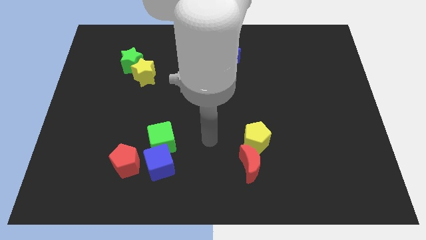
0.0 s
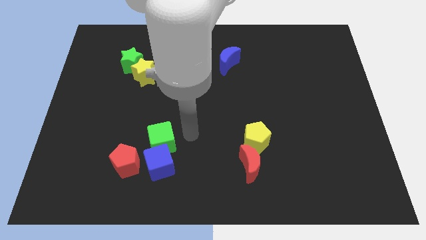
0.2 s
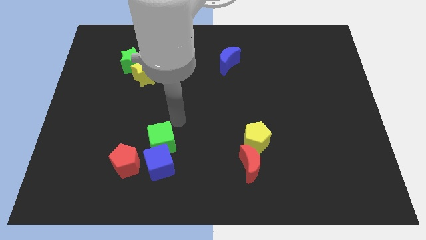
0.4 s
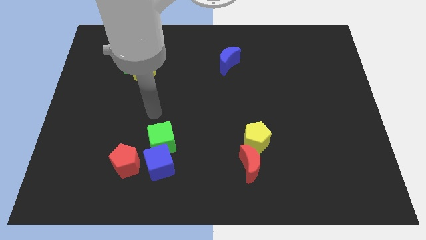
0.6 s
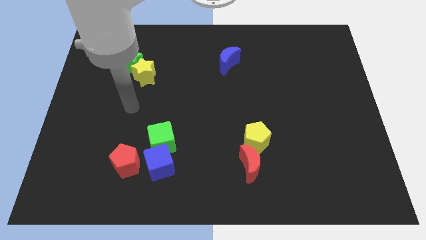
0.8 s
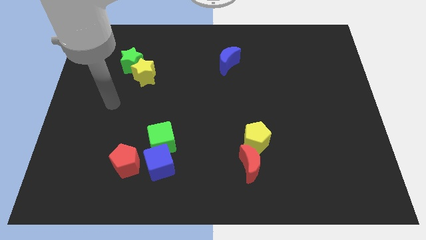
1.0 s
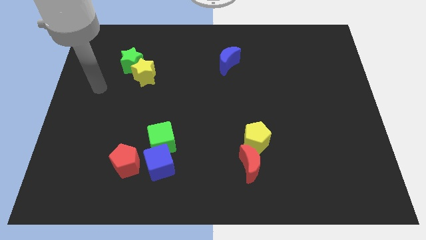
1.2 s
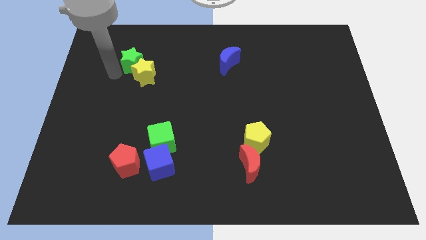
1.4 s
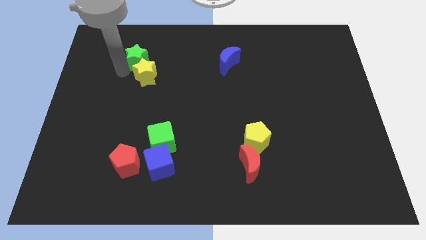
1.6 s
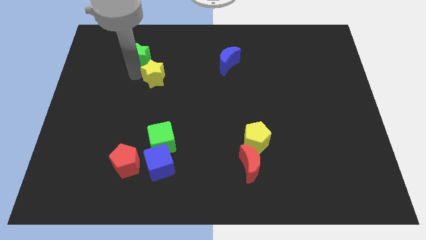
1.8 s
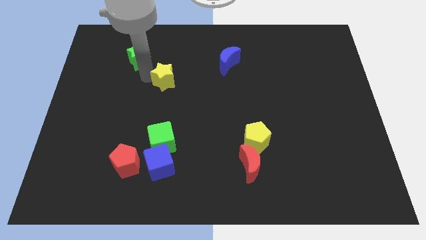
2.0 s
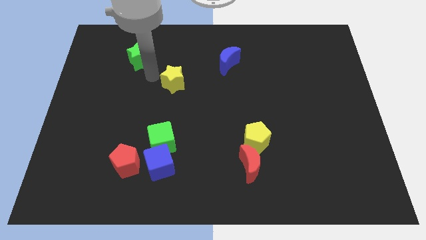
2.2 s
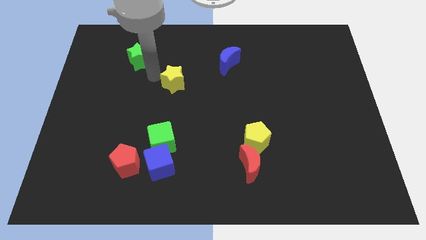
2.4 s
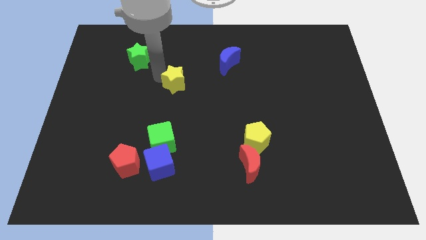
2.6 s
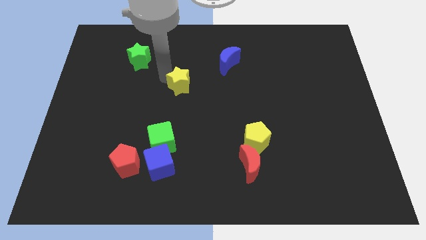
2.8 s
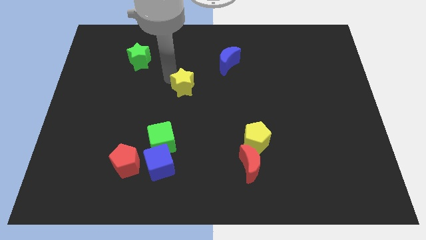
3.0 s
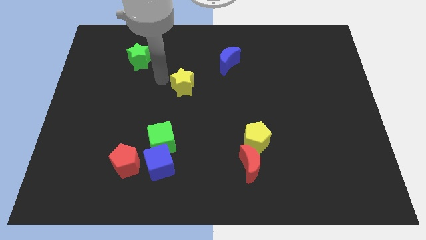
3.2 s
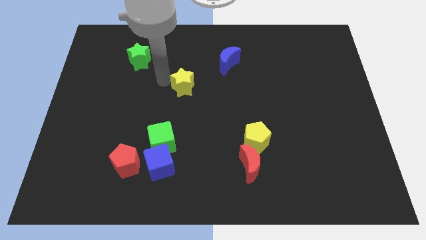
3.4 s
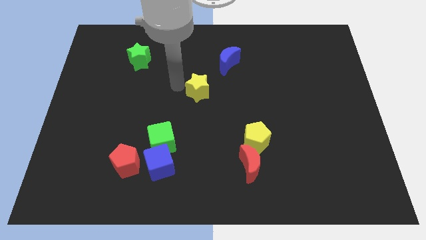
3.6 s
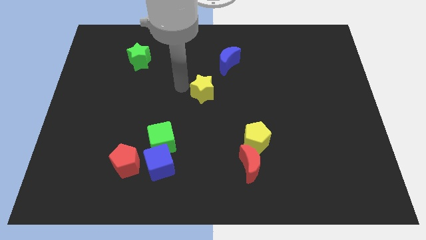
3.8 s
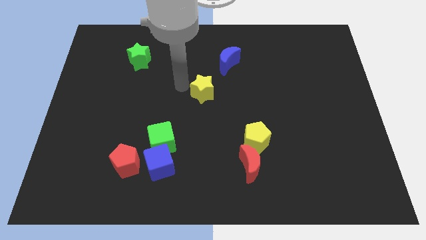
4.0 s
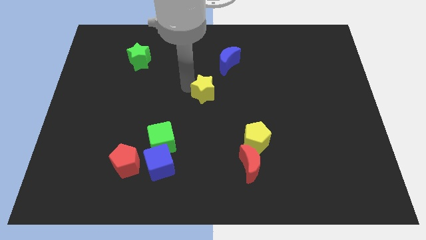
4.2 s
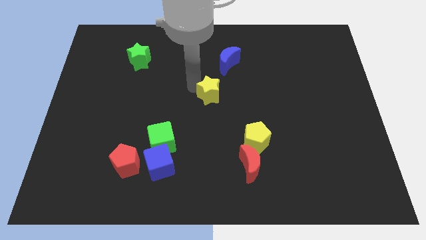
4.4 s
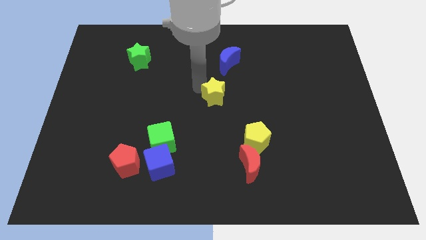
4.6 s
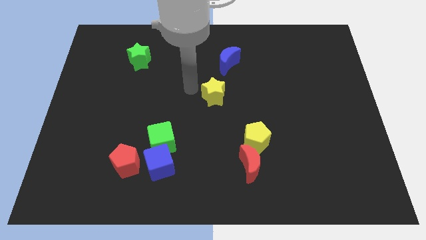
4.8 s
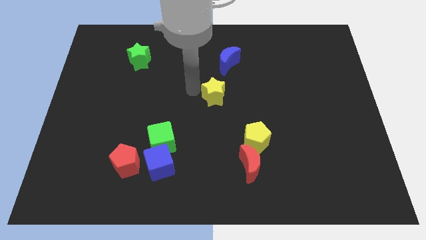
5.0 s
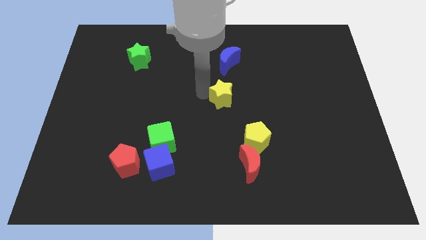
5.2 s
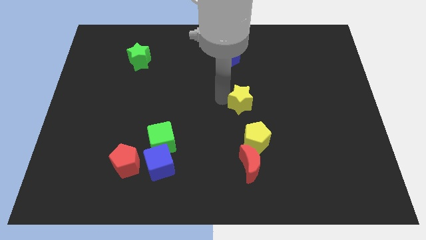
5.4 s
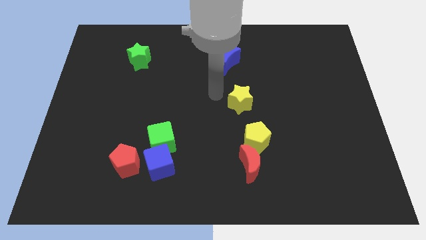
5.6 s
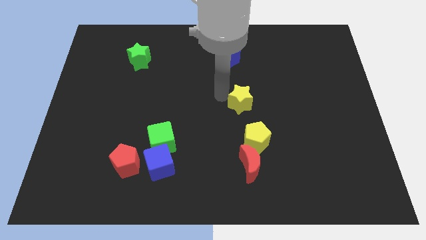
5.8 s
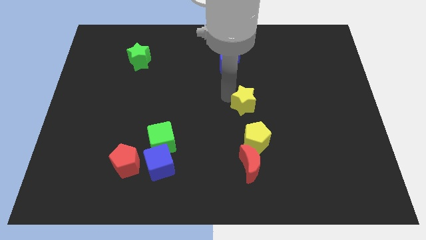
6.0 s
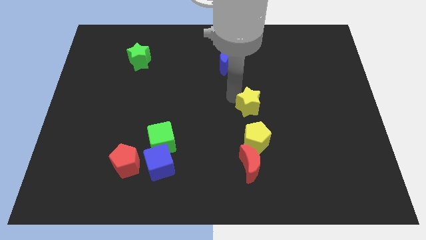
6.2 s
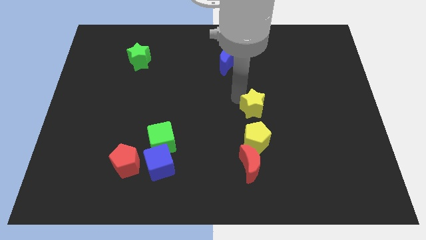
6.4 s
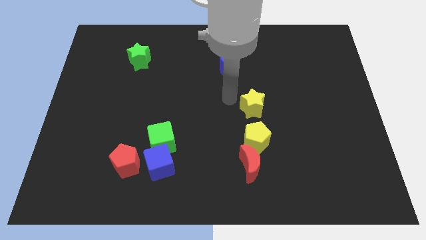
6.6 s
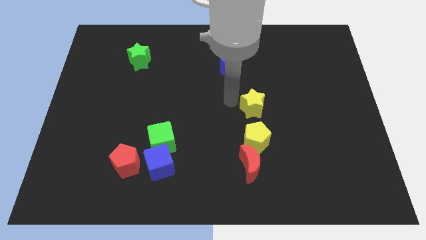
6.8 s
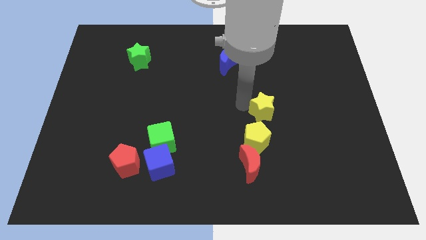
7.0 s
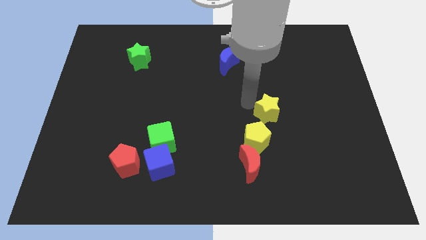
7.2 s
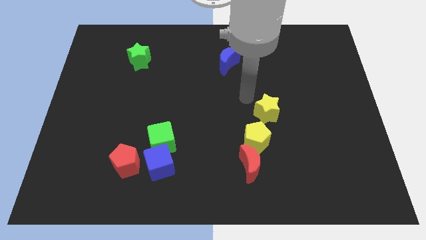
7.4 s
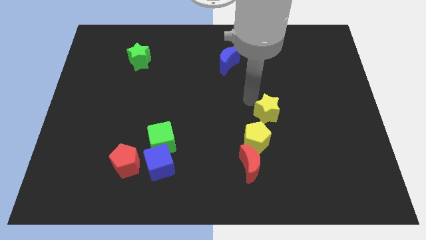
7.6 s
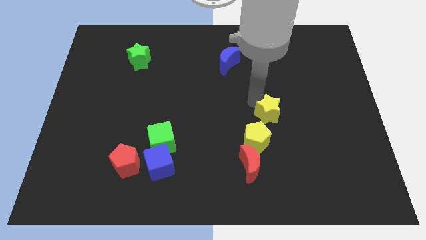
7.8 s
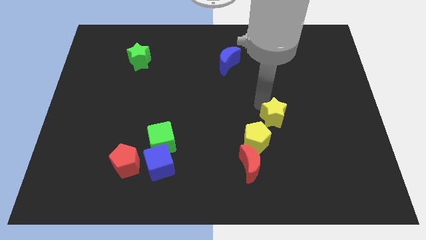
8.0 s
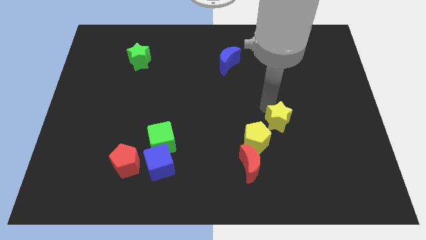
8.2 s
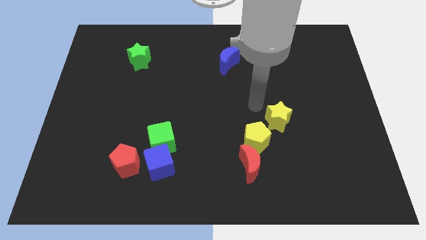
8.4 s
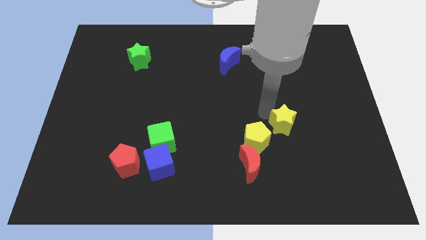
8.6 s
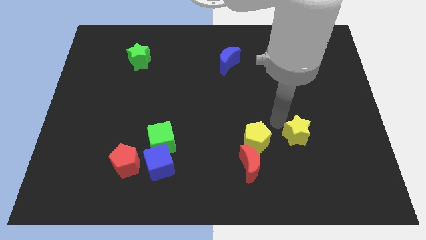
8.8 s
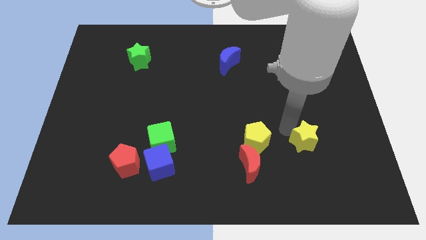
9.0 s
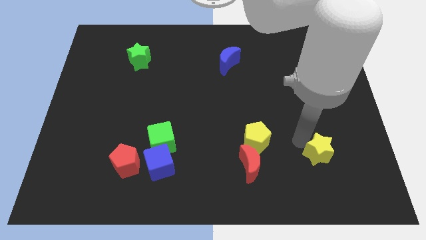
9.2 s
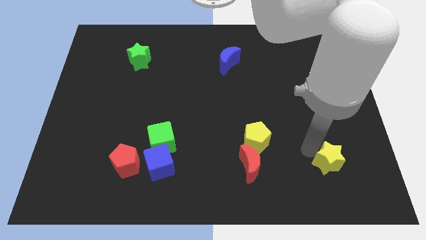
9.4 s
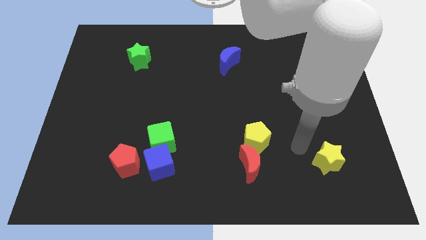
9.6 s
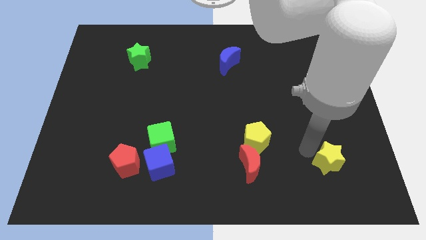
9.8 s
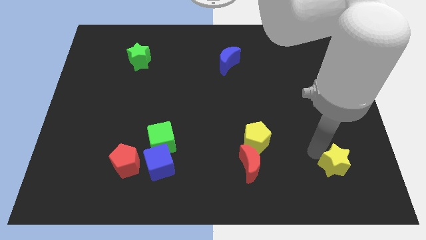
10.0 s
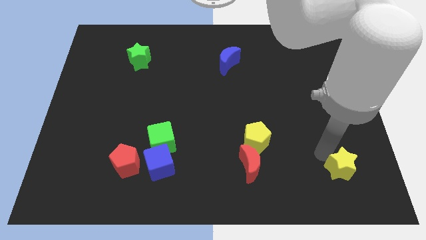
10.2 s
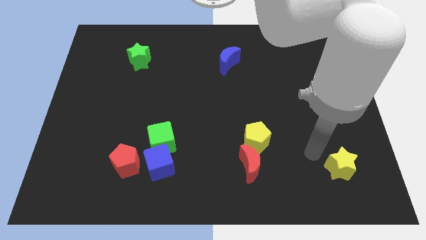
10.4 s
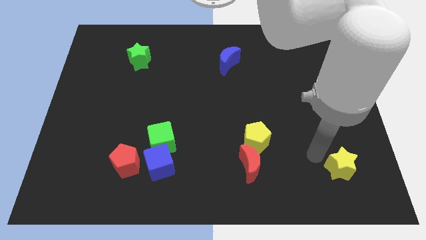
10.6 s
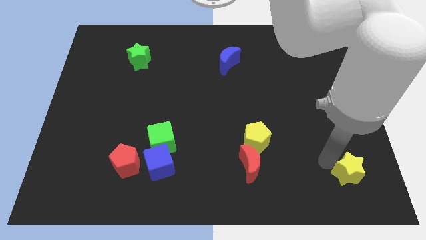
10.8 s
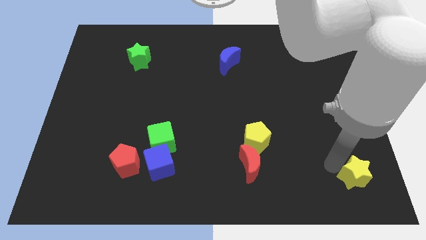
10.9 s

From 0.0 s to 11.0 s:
push the yellow star to the bottom right of the board
